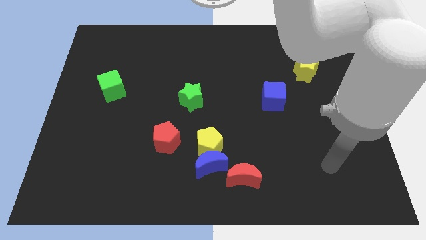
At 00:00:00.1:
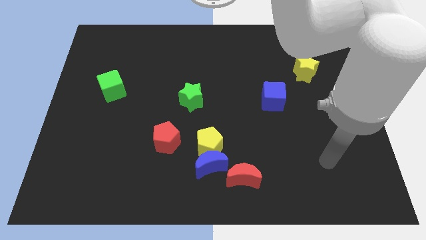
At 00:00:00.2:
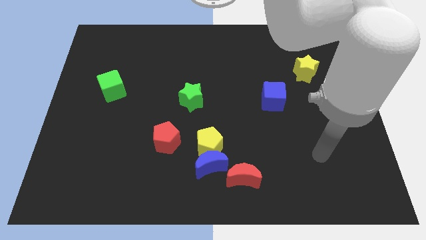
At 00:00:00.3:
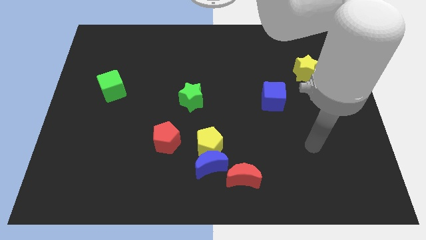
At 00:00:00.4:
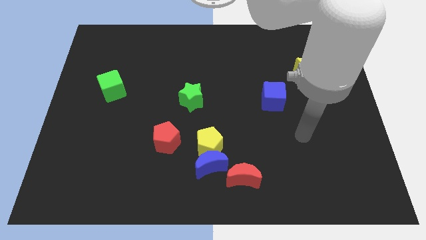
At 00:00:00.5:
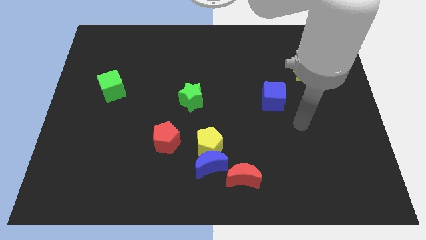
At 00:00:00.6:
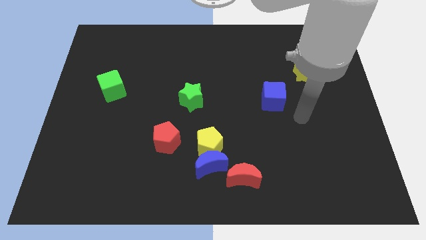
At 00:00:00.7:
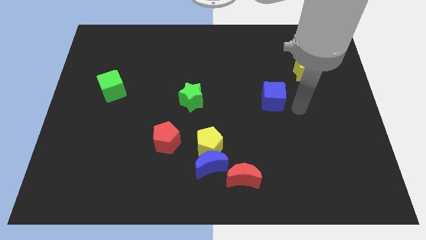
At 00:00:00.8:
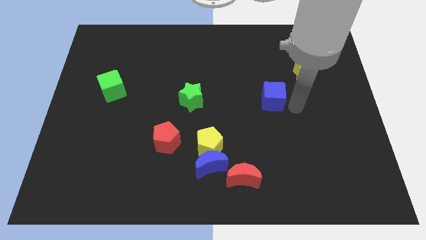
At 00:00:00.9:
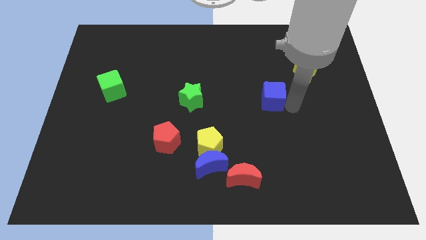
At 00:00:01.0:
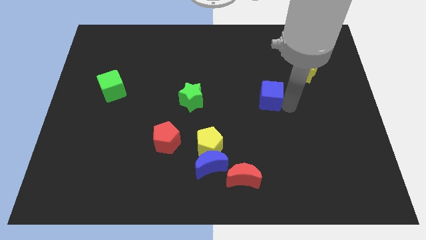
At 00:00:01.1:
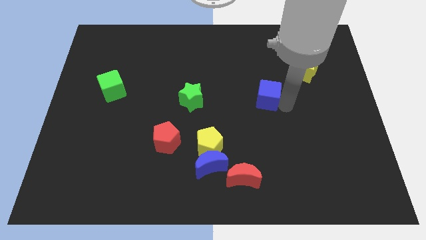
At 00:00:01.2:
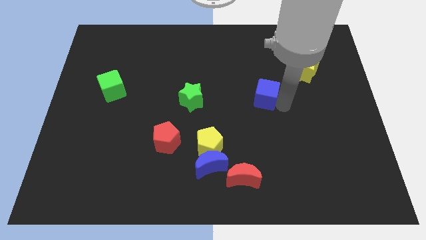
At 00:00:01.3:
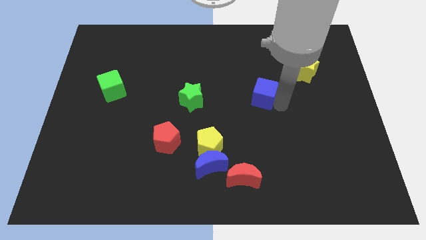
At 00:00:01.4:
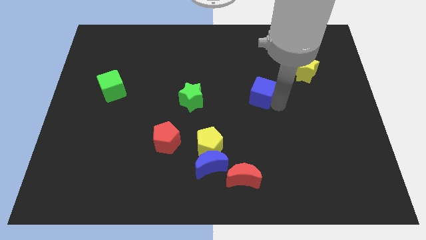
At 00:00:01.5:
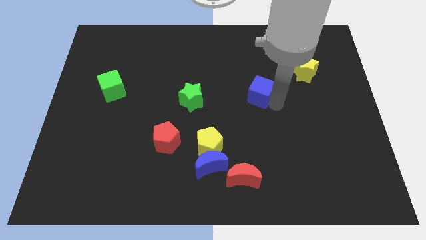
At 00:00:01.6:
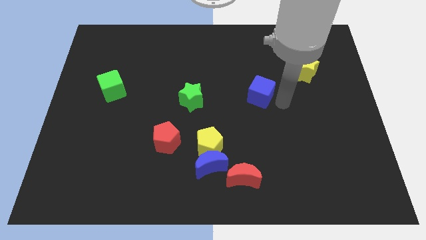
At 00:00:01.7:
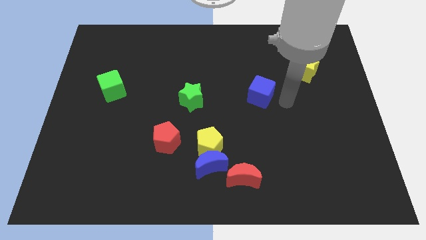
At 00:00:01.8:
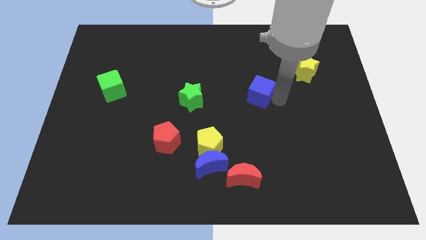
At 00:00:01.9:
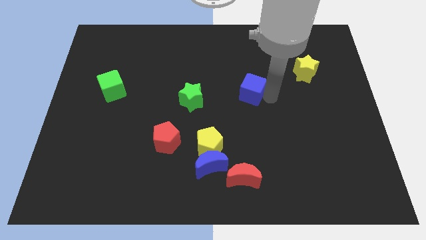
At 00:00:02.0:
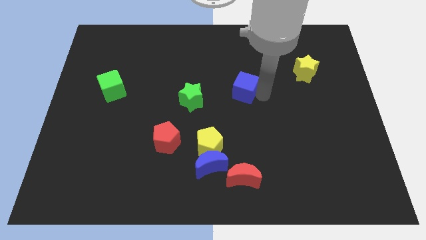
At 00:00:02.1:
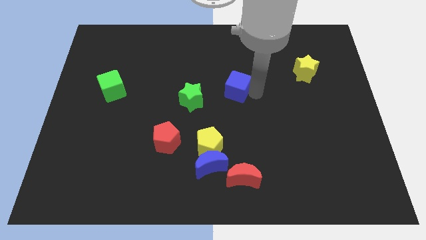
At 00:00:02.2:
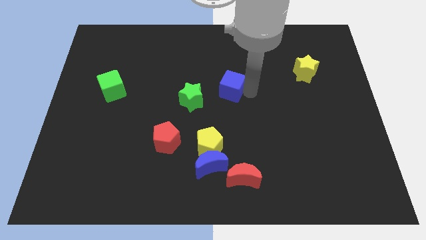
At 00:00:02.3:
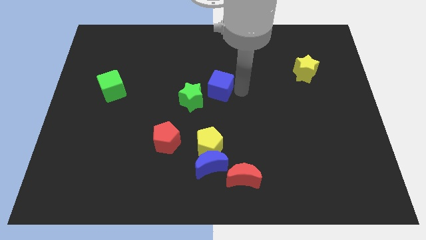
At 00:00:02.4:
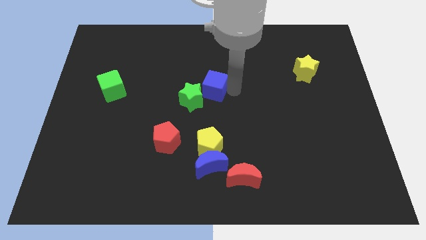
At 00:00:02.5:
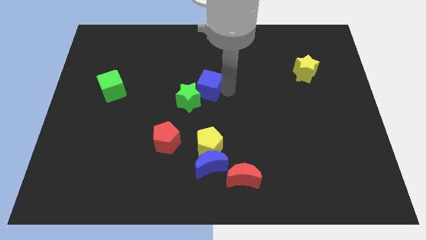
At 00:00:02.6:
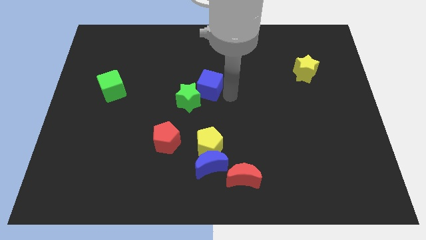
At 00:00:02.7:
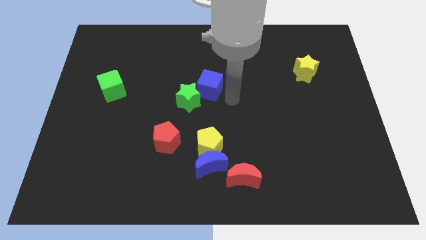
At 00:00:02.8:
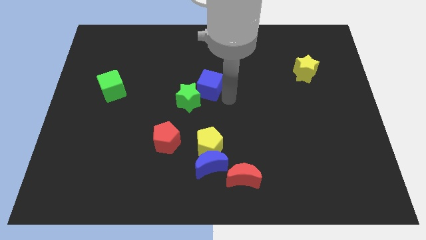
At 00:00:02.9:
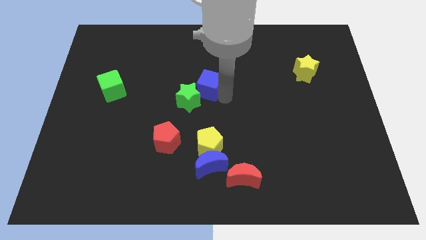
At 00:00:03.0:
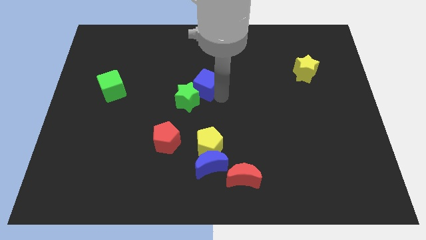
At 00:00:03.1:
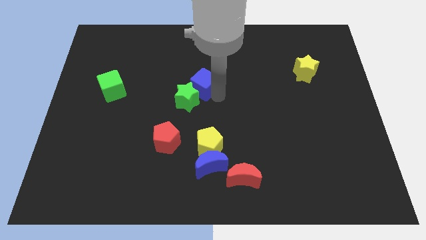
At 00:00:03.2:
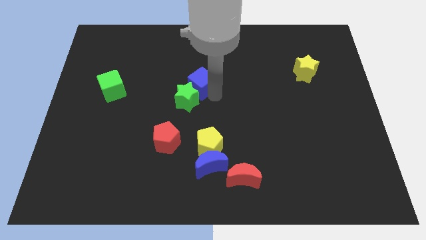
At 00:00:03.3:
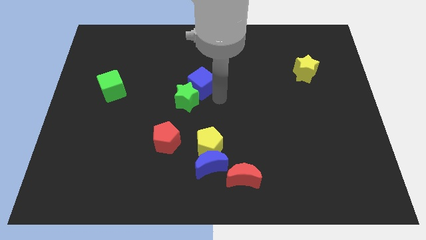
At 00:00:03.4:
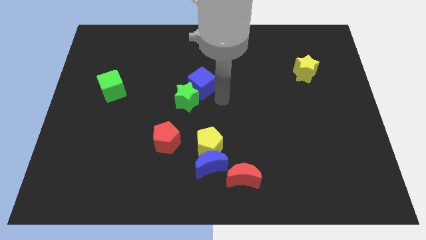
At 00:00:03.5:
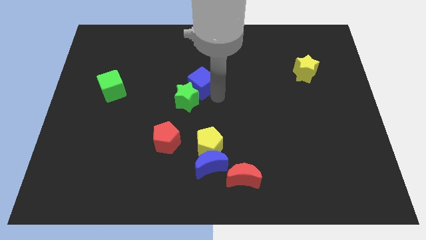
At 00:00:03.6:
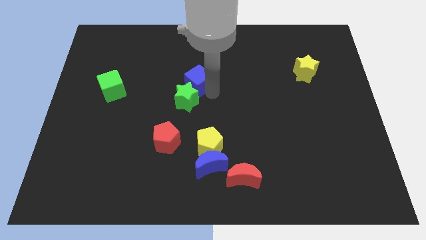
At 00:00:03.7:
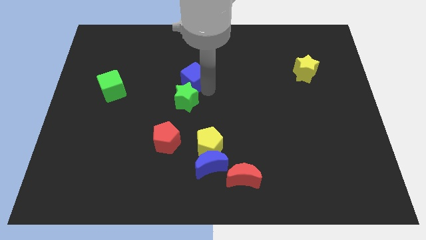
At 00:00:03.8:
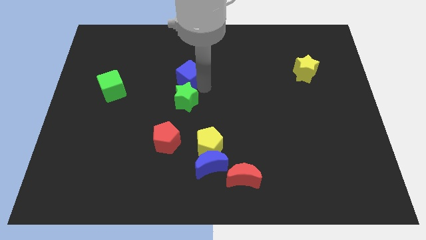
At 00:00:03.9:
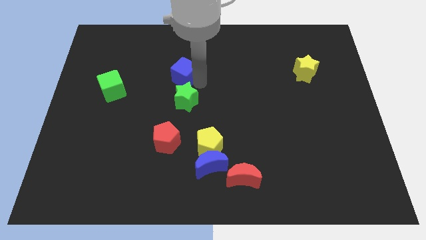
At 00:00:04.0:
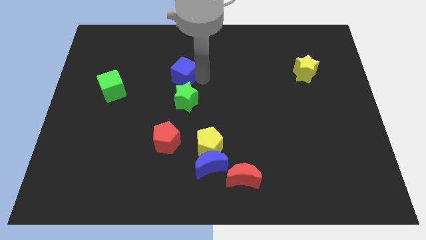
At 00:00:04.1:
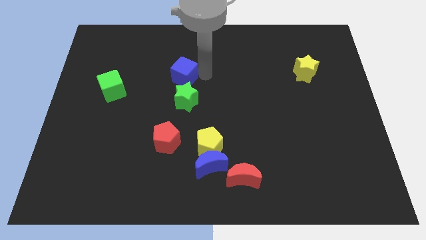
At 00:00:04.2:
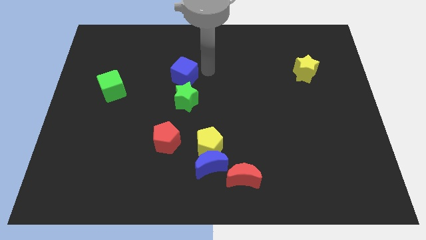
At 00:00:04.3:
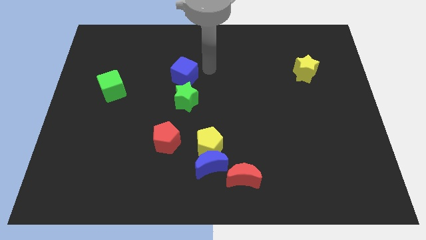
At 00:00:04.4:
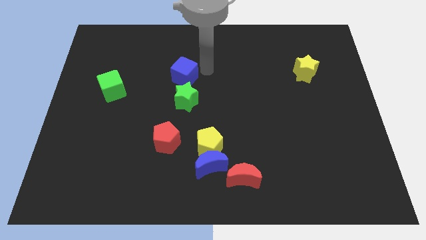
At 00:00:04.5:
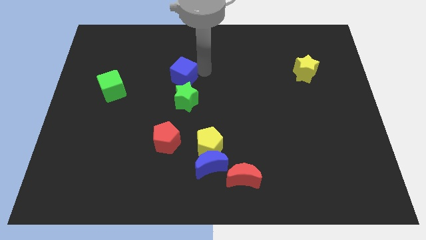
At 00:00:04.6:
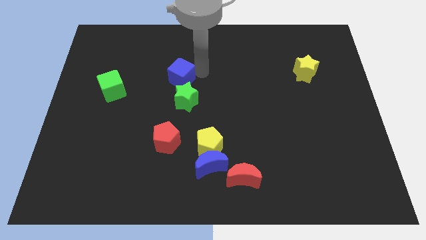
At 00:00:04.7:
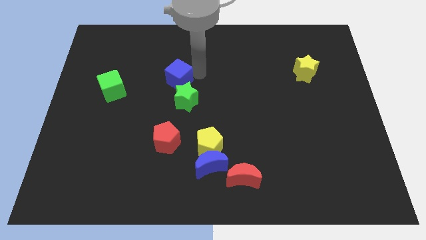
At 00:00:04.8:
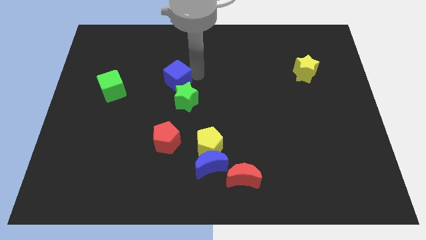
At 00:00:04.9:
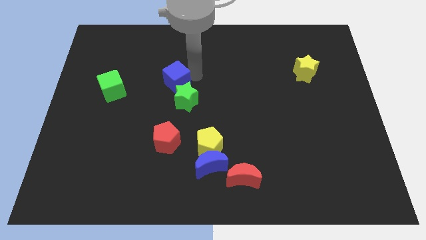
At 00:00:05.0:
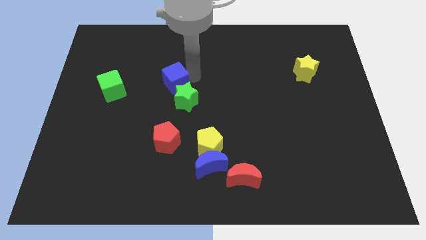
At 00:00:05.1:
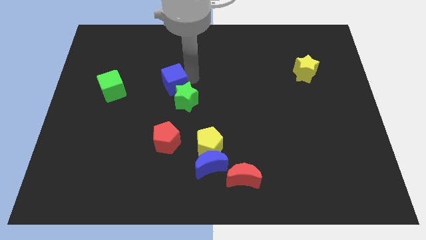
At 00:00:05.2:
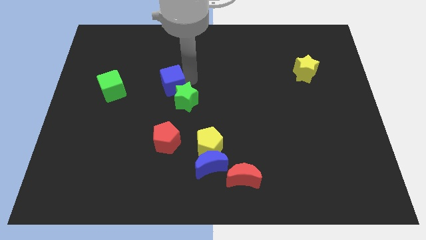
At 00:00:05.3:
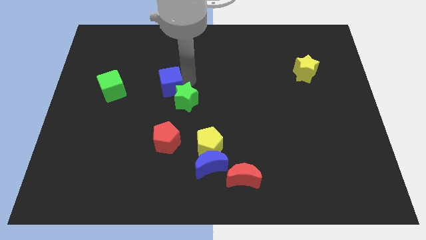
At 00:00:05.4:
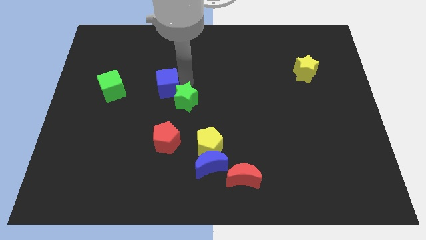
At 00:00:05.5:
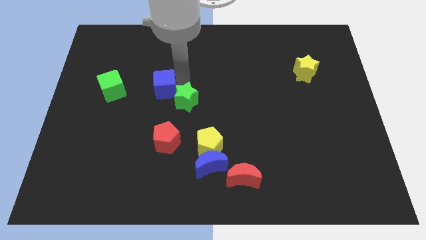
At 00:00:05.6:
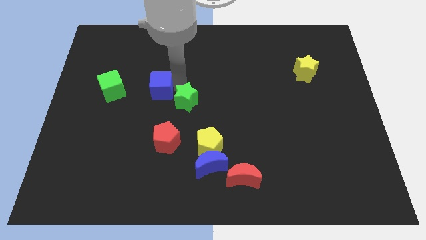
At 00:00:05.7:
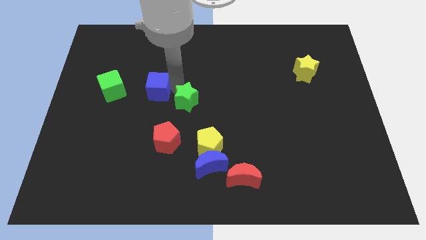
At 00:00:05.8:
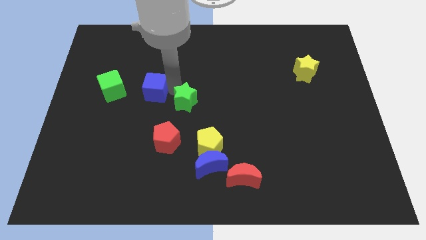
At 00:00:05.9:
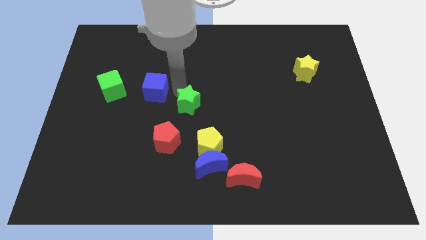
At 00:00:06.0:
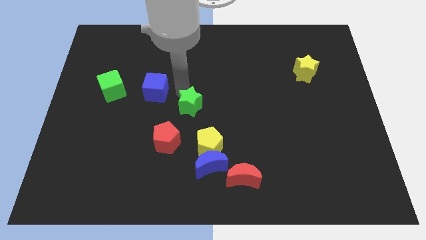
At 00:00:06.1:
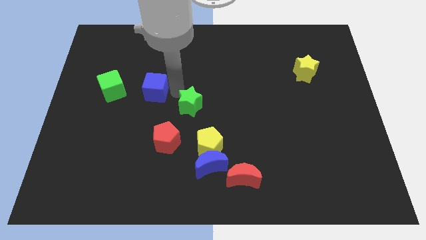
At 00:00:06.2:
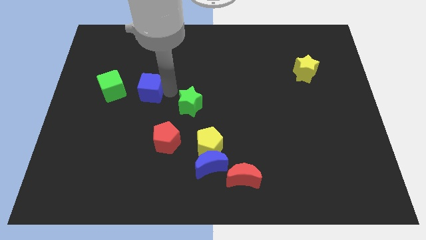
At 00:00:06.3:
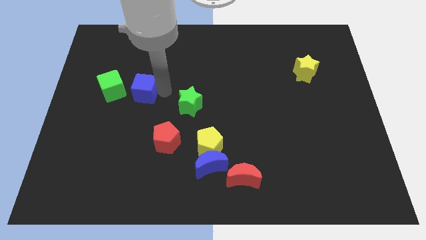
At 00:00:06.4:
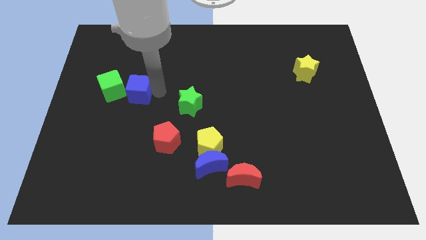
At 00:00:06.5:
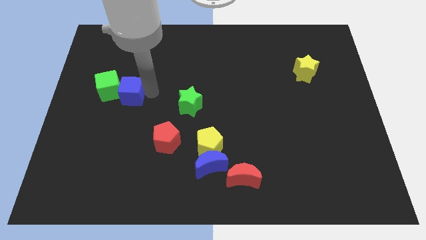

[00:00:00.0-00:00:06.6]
move the blue cube next to the green cube
